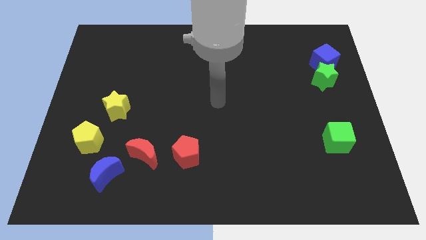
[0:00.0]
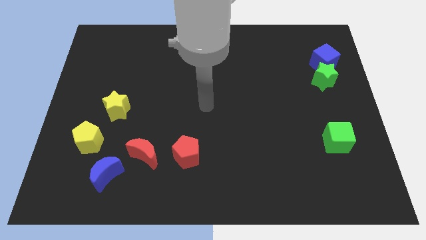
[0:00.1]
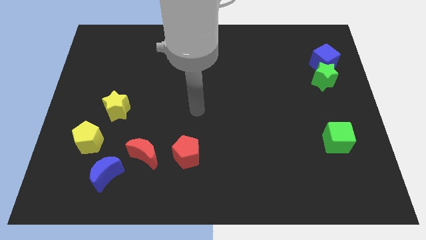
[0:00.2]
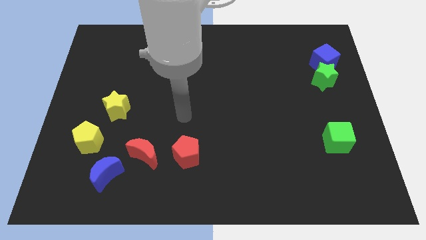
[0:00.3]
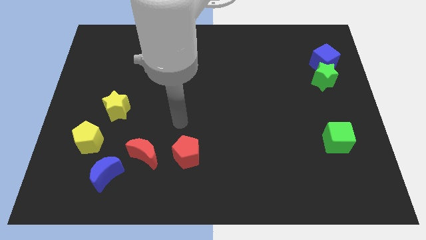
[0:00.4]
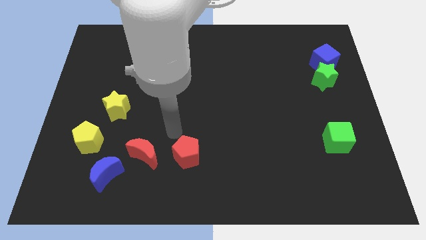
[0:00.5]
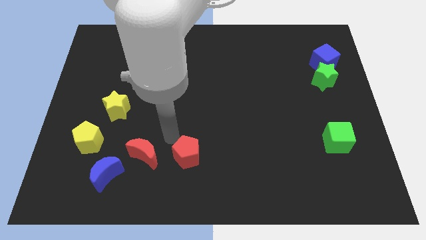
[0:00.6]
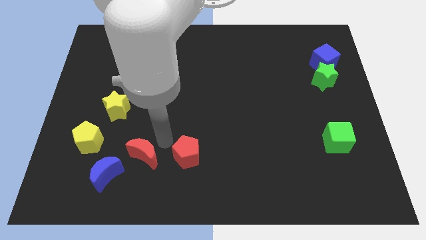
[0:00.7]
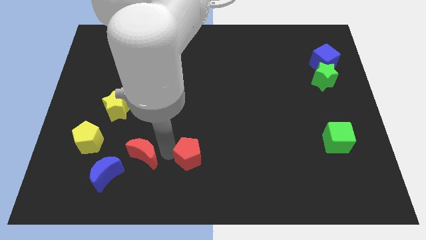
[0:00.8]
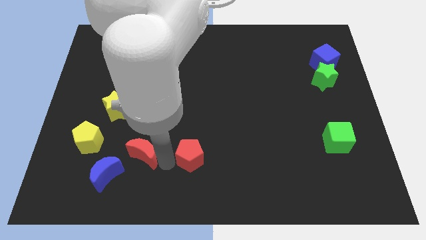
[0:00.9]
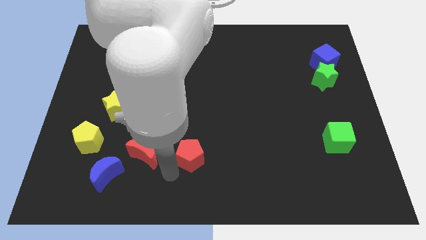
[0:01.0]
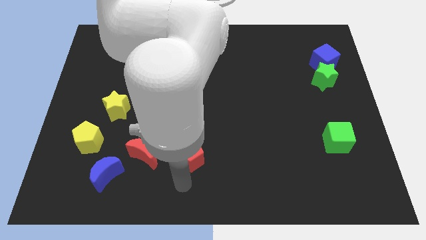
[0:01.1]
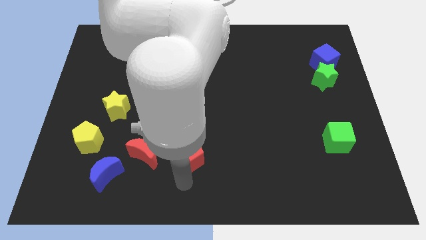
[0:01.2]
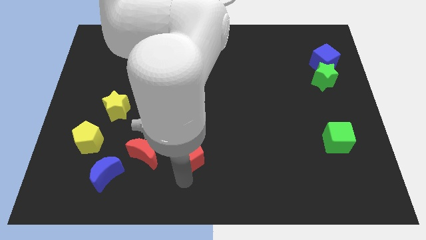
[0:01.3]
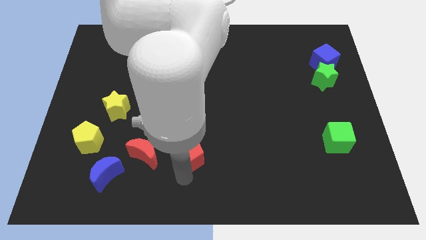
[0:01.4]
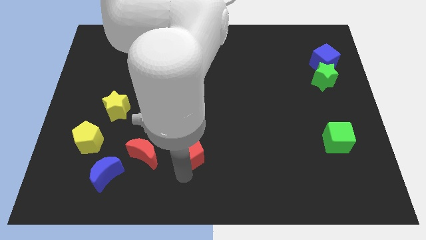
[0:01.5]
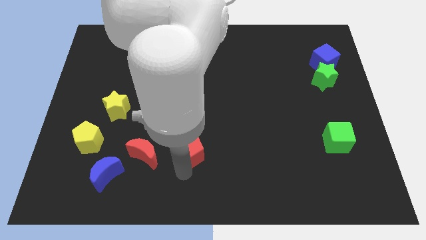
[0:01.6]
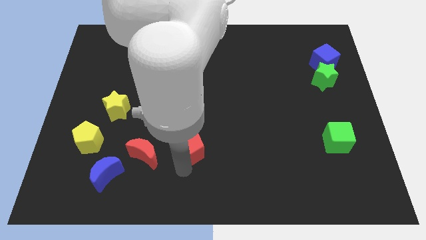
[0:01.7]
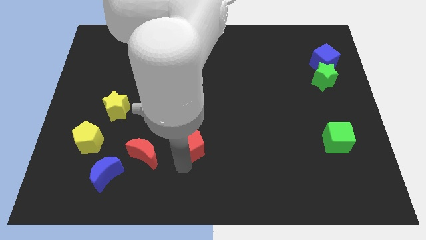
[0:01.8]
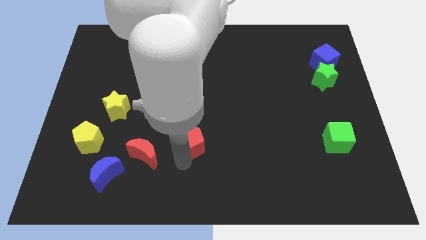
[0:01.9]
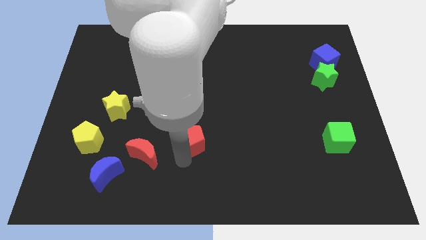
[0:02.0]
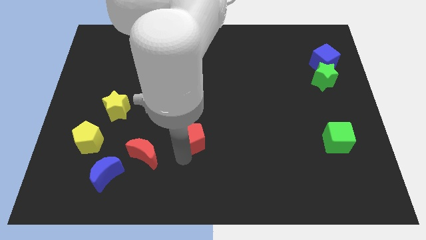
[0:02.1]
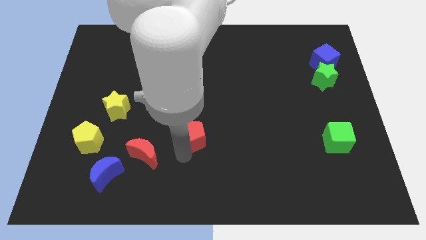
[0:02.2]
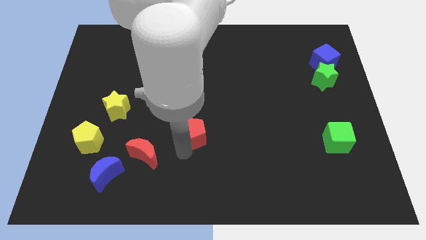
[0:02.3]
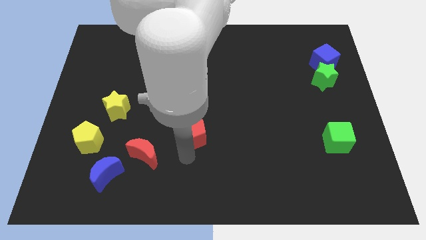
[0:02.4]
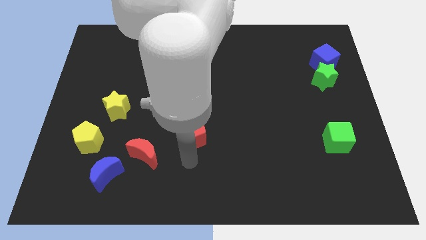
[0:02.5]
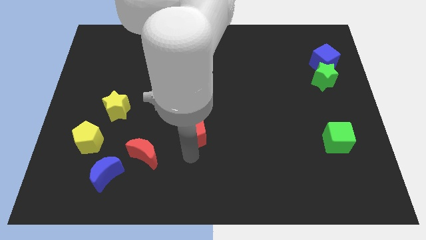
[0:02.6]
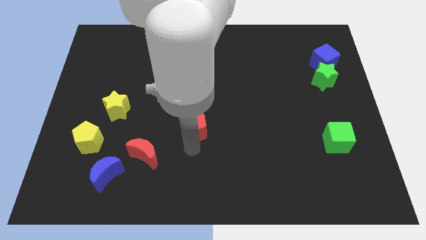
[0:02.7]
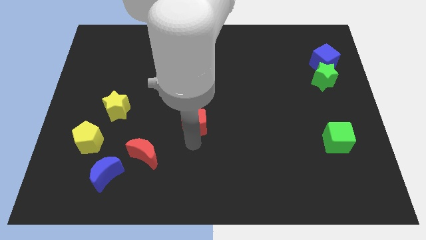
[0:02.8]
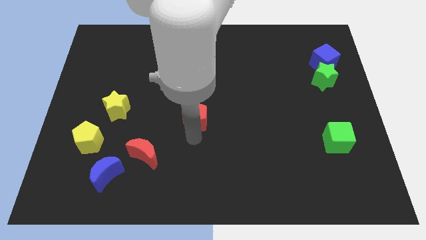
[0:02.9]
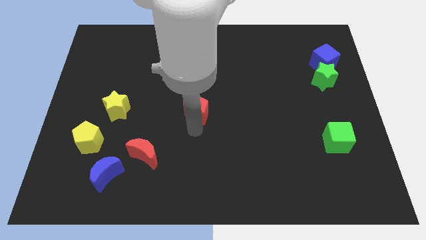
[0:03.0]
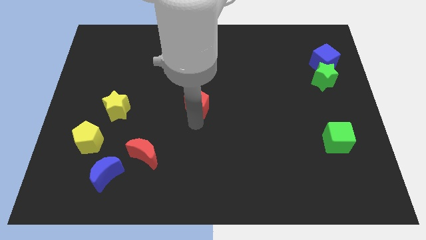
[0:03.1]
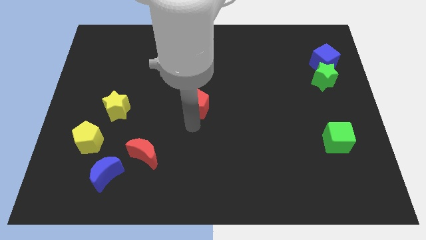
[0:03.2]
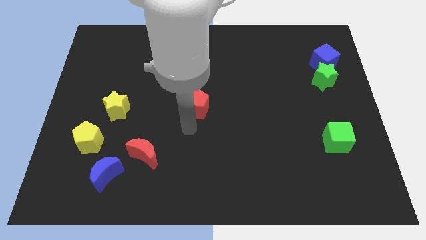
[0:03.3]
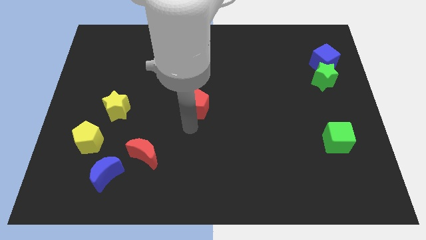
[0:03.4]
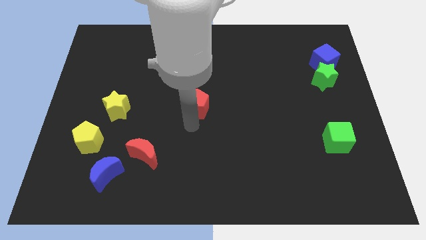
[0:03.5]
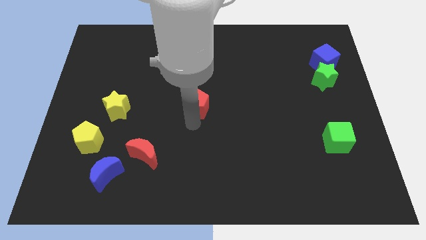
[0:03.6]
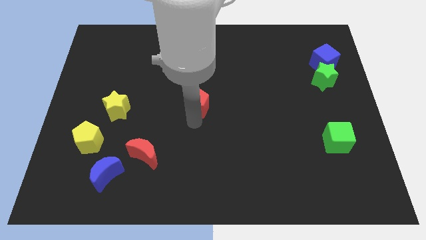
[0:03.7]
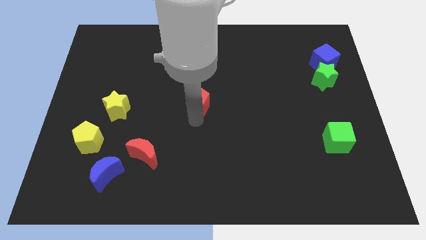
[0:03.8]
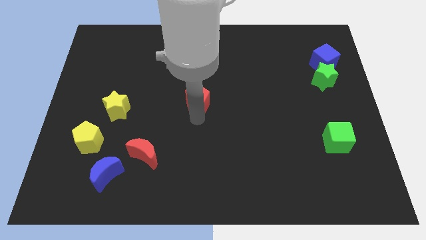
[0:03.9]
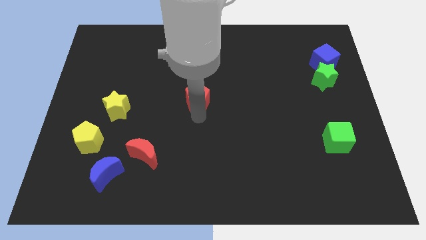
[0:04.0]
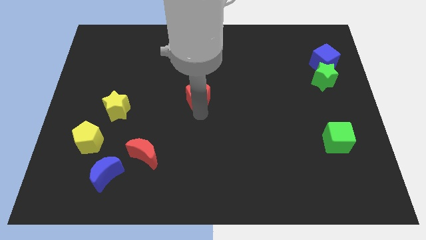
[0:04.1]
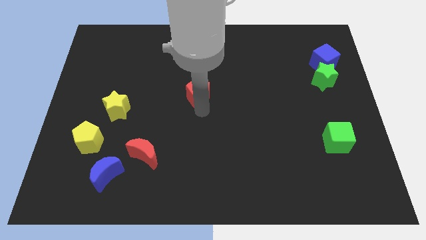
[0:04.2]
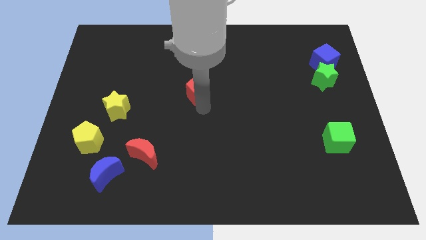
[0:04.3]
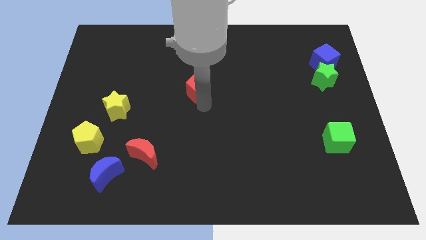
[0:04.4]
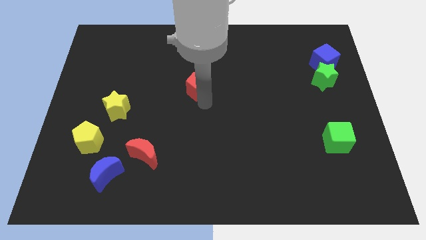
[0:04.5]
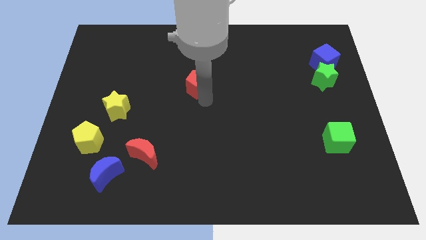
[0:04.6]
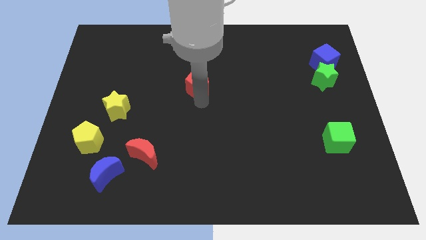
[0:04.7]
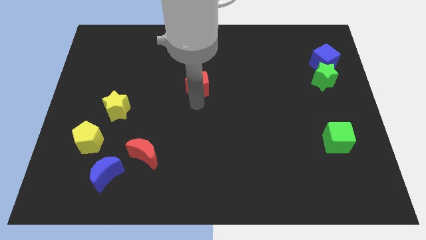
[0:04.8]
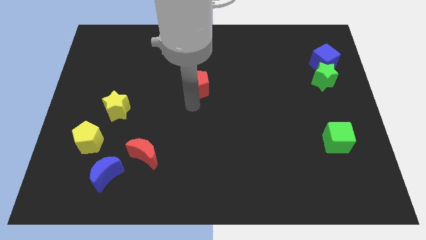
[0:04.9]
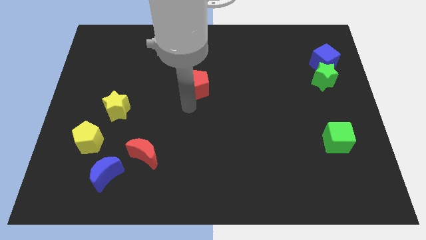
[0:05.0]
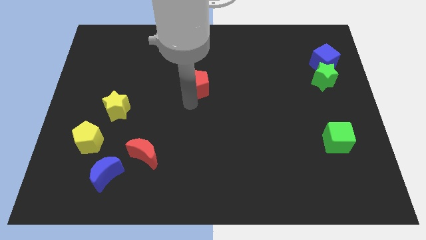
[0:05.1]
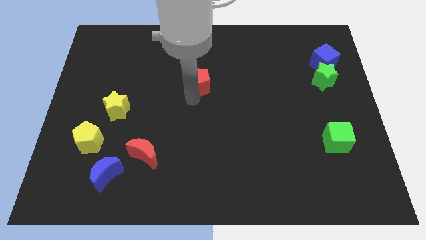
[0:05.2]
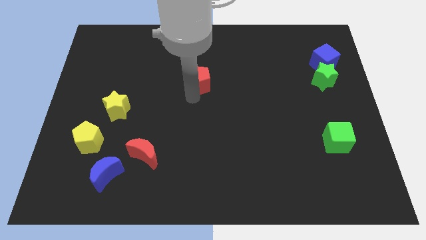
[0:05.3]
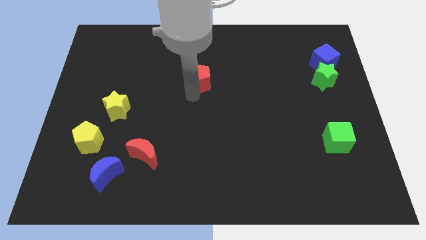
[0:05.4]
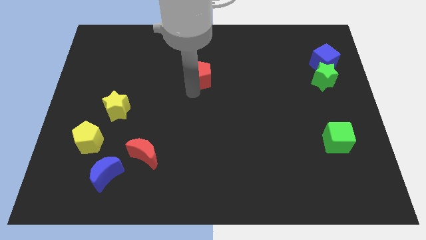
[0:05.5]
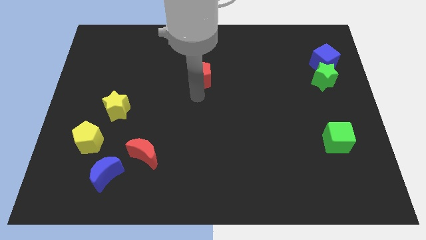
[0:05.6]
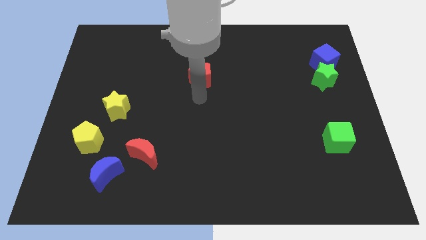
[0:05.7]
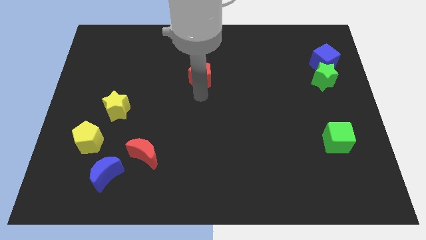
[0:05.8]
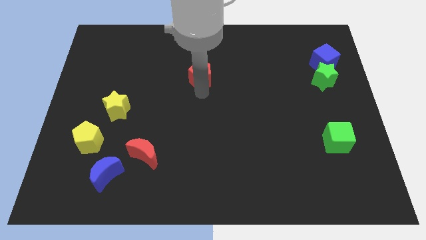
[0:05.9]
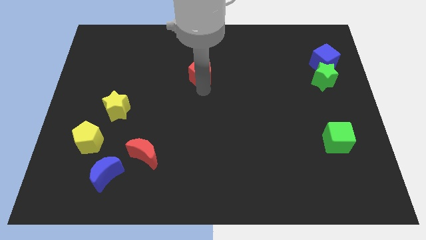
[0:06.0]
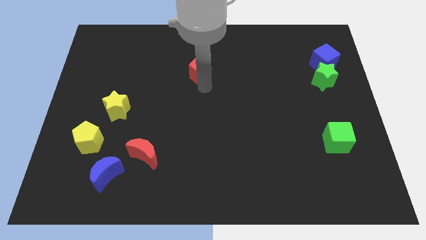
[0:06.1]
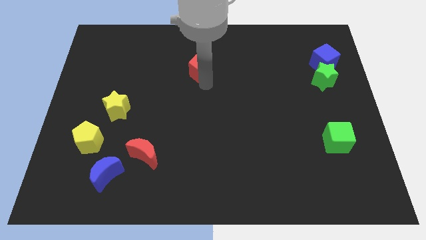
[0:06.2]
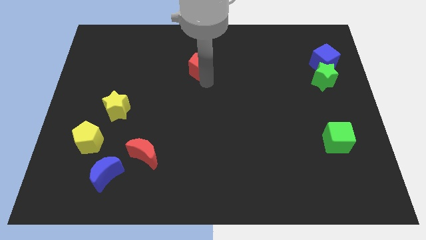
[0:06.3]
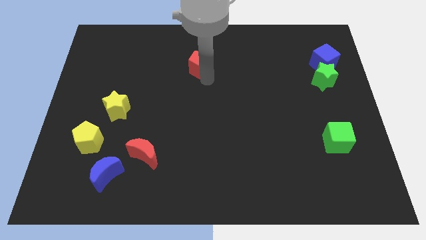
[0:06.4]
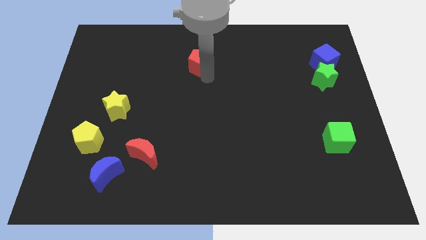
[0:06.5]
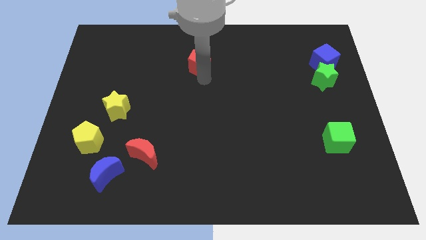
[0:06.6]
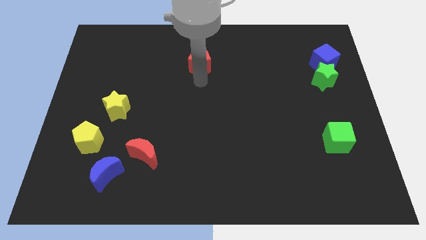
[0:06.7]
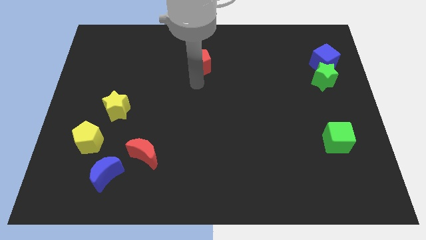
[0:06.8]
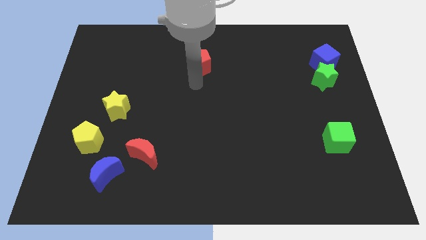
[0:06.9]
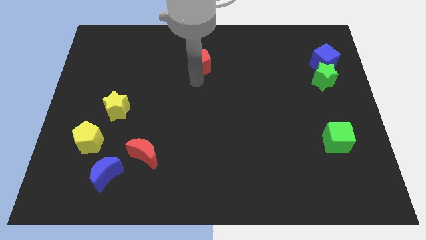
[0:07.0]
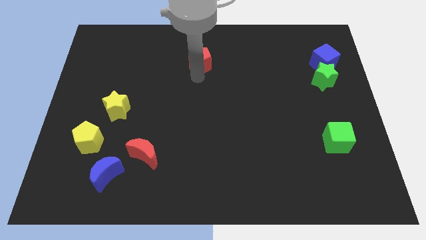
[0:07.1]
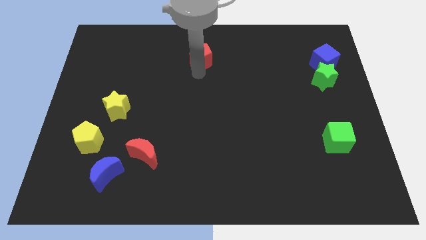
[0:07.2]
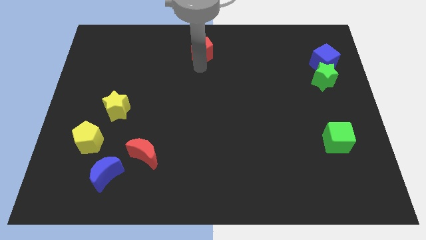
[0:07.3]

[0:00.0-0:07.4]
push the red pentagon to the top side
